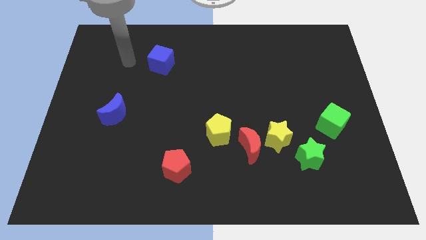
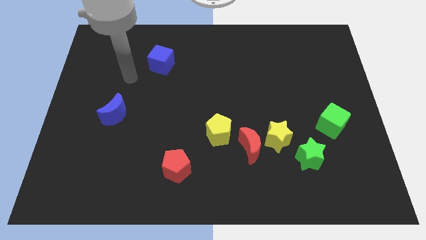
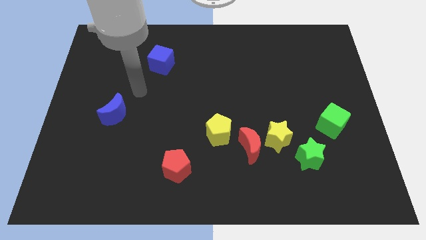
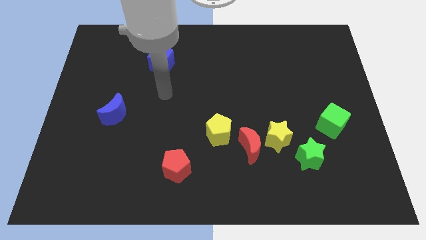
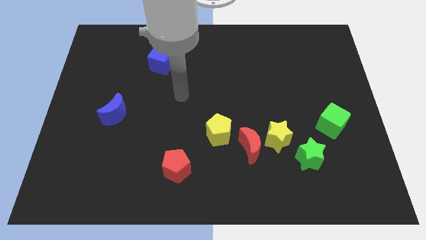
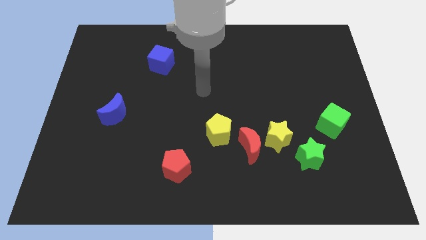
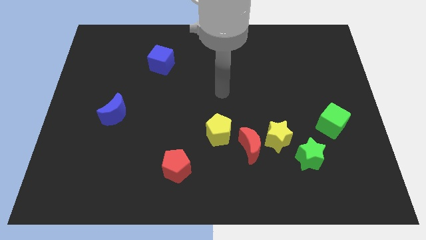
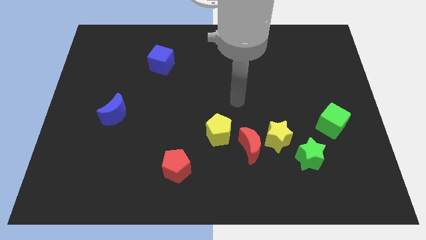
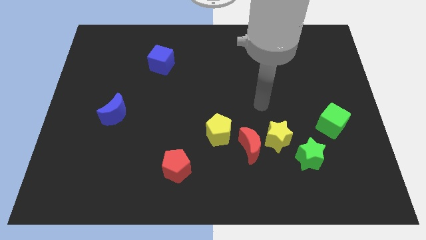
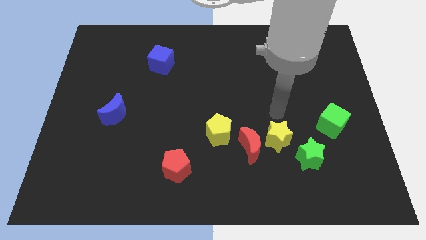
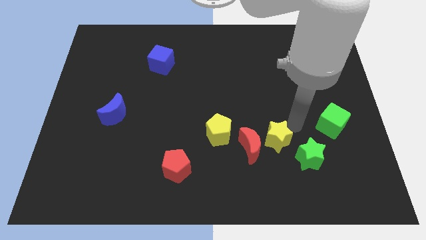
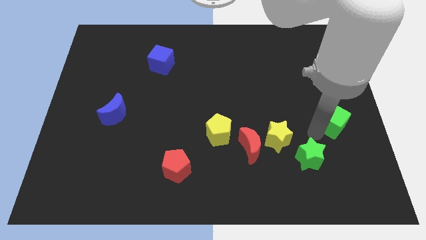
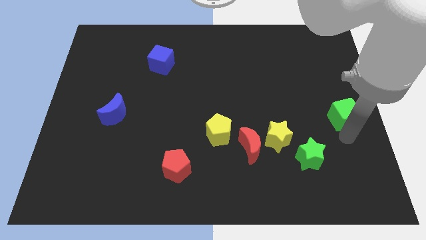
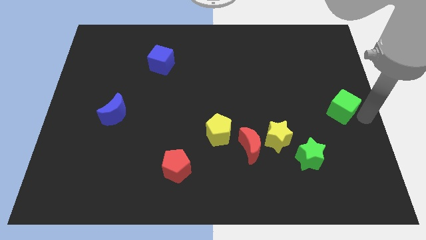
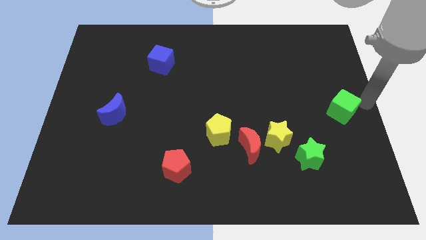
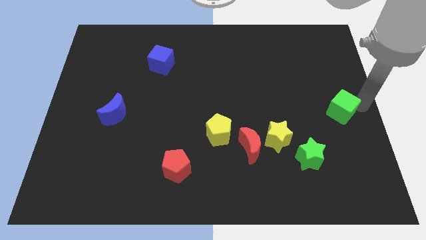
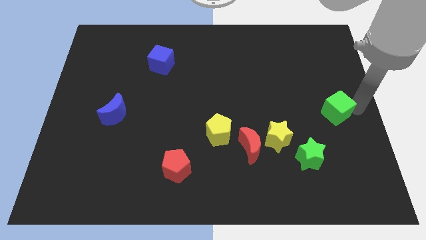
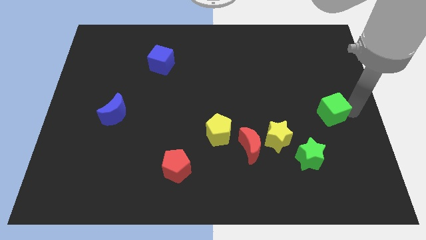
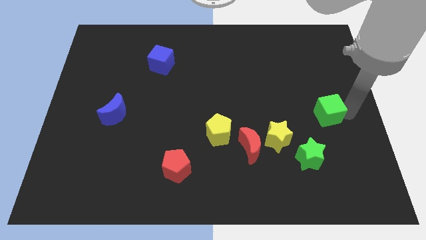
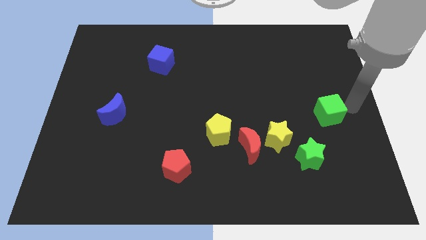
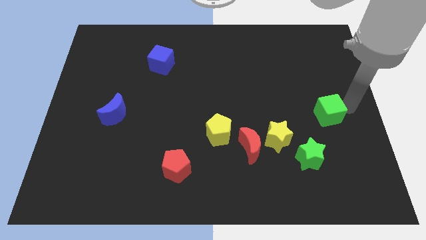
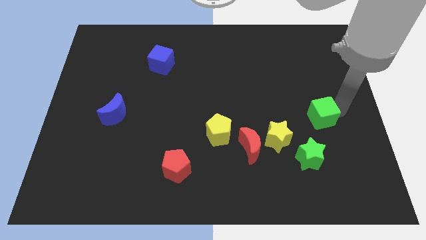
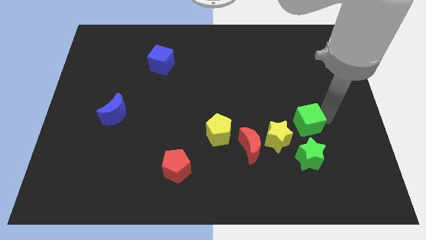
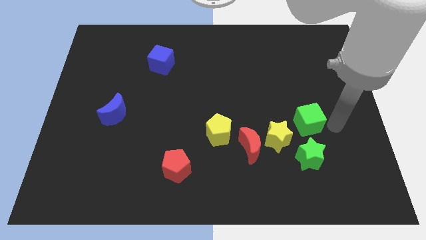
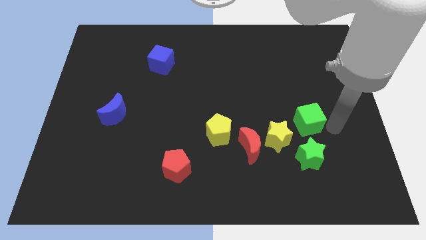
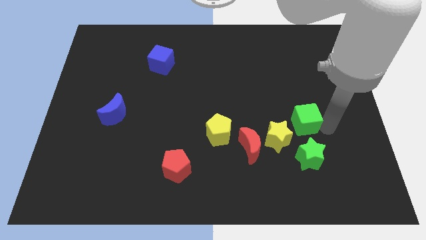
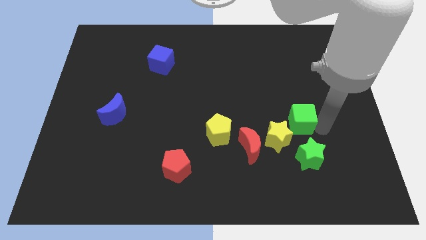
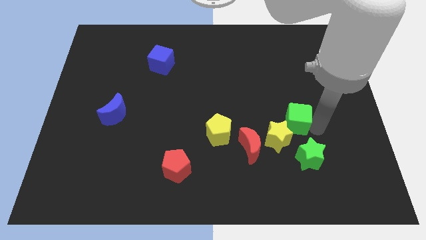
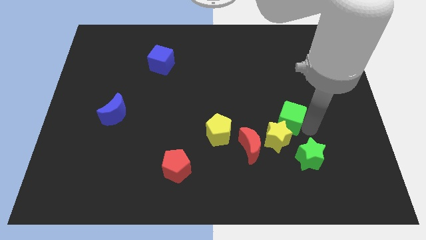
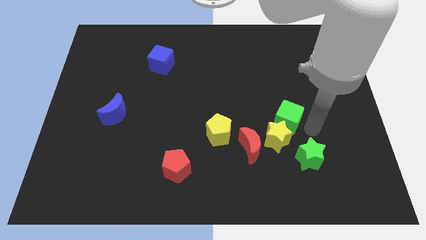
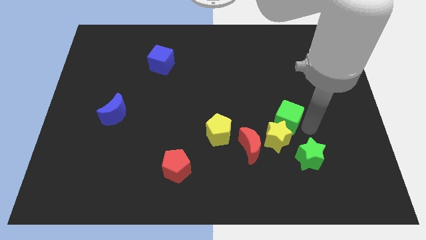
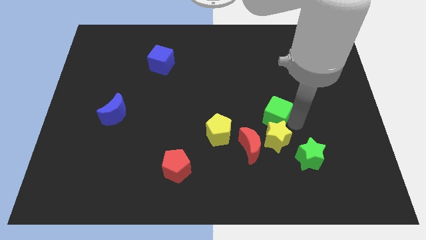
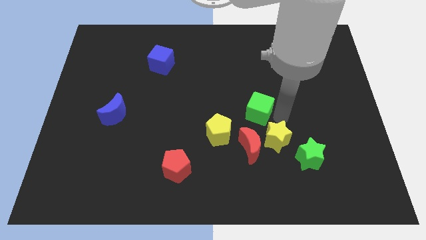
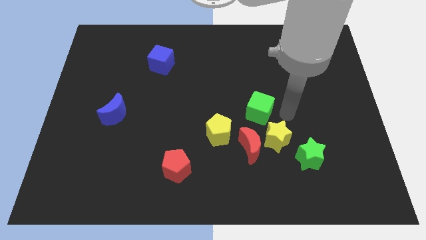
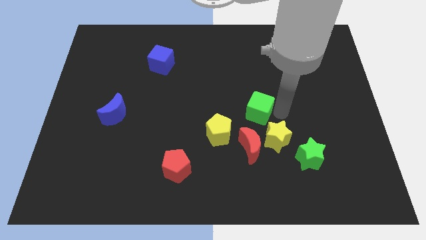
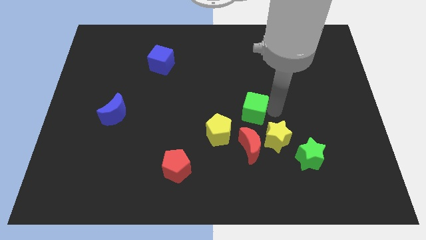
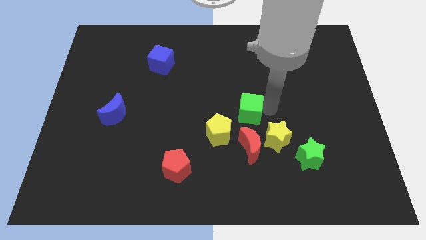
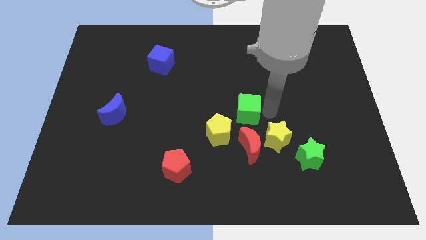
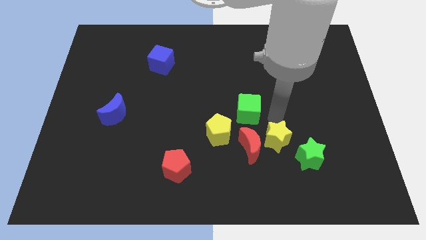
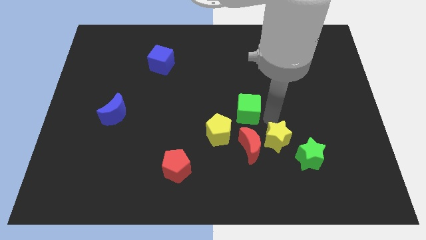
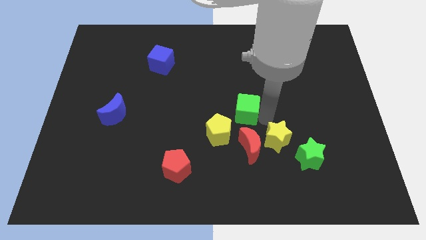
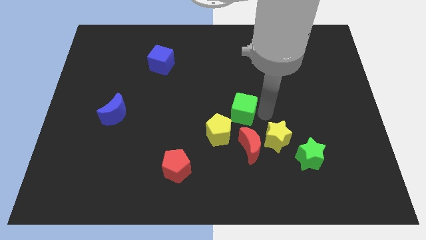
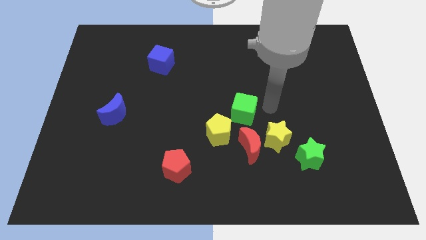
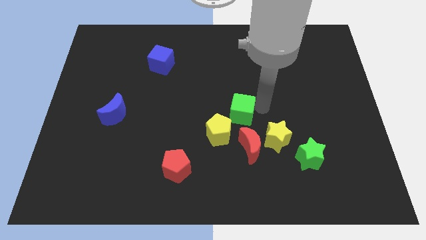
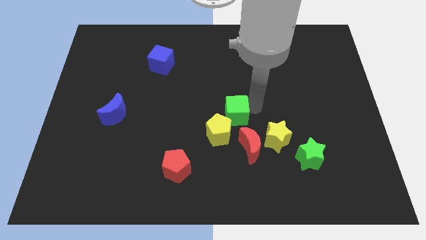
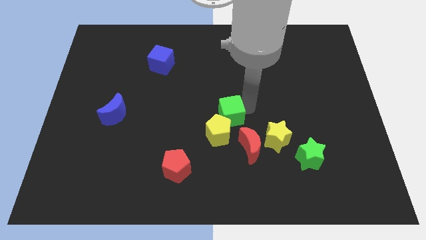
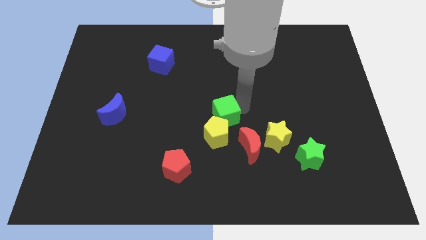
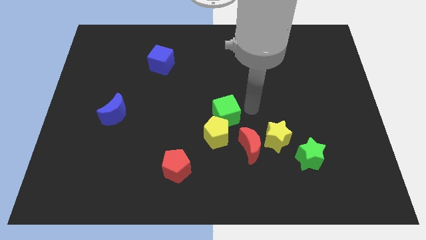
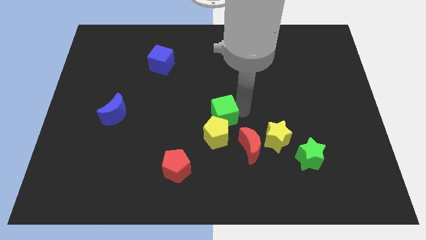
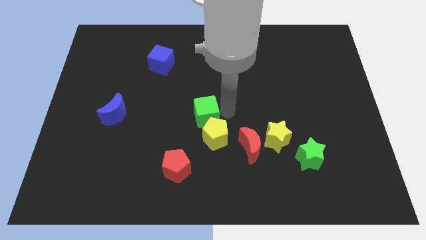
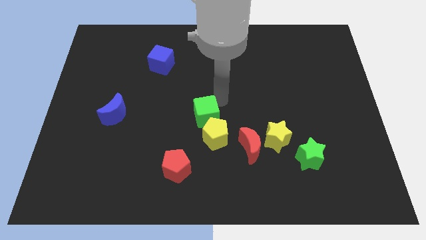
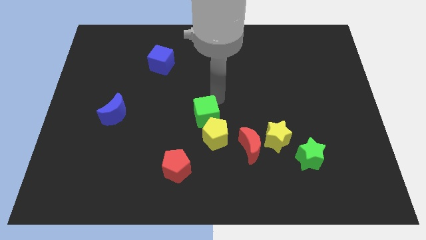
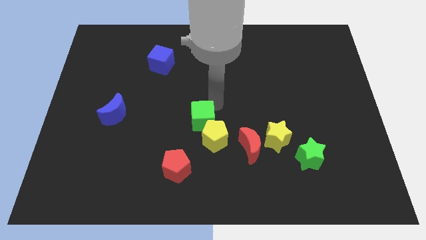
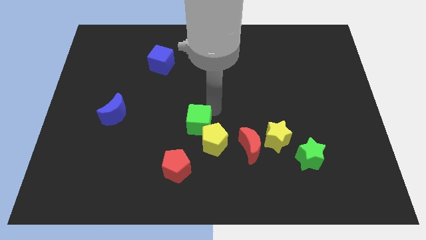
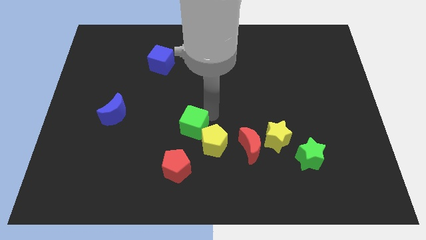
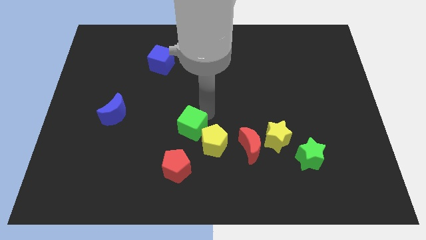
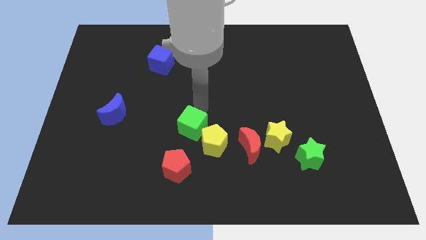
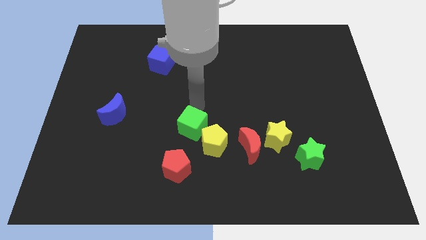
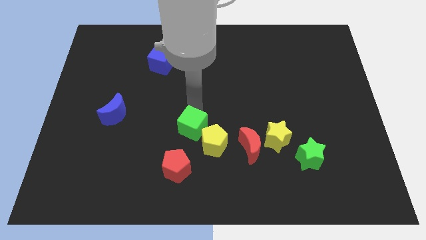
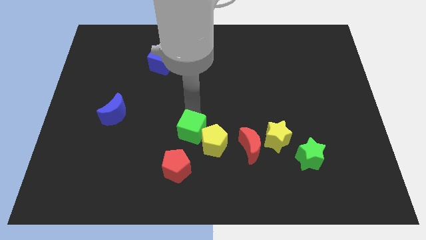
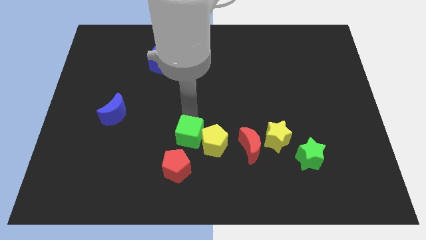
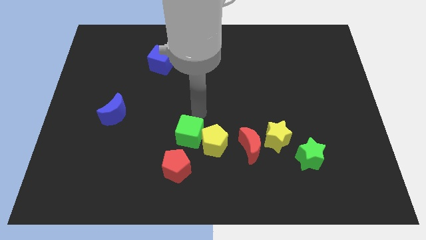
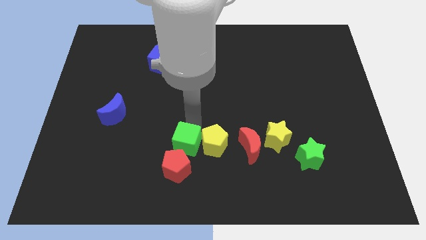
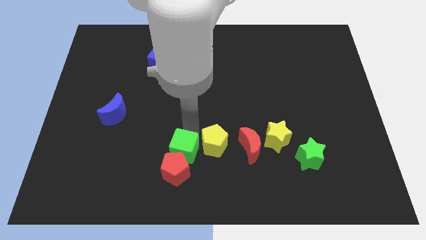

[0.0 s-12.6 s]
move the green cube next to the red pentagon
